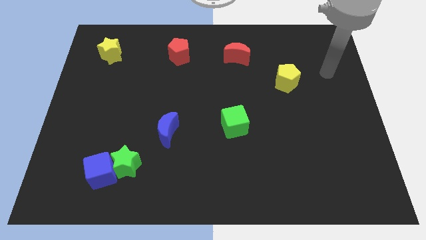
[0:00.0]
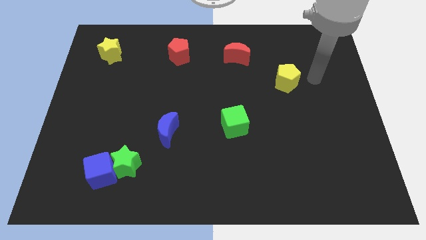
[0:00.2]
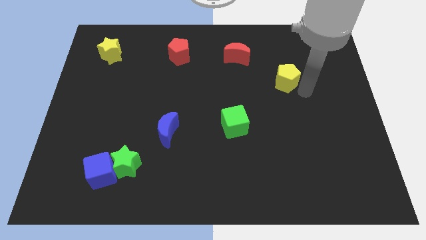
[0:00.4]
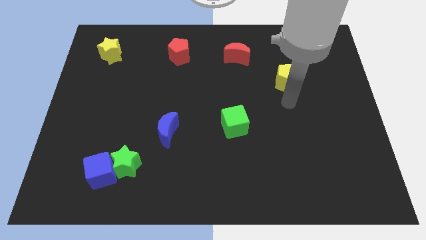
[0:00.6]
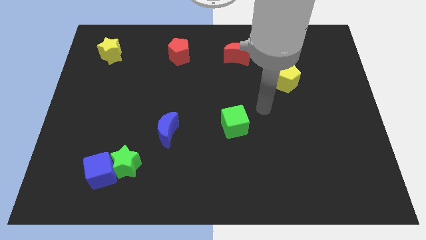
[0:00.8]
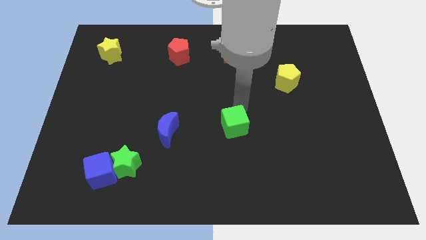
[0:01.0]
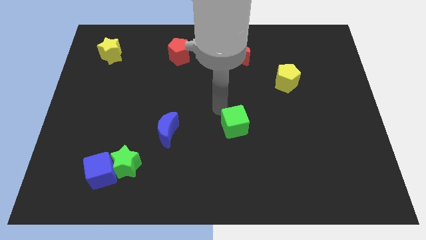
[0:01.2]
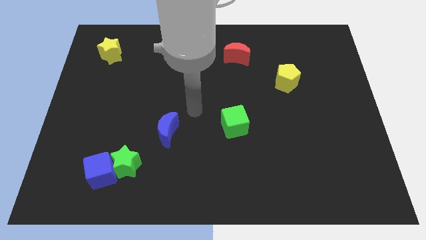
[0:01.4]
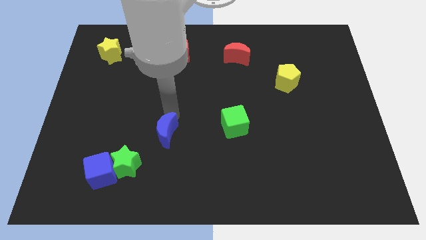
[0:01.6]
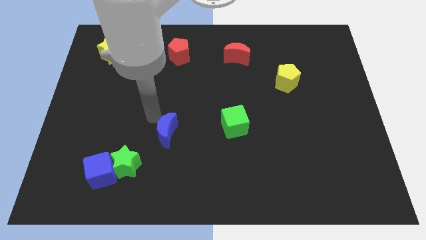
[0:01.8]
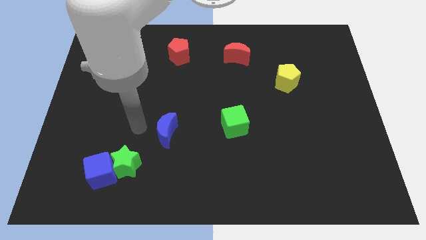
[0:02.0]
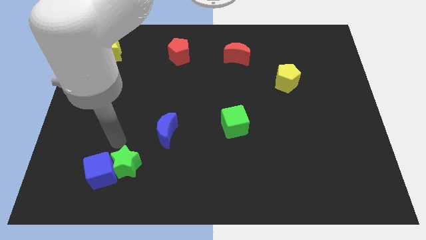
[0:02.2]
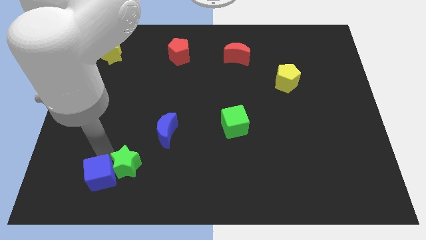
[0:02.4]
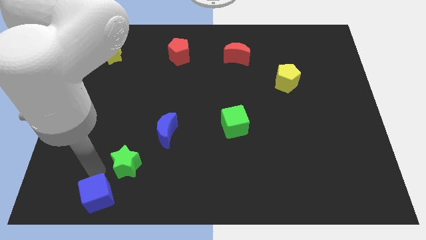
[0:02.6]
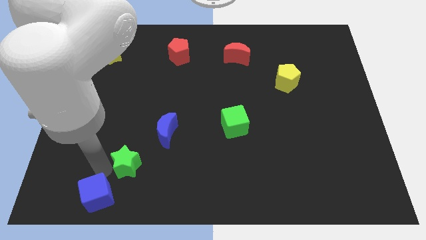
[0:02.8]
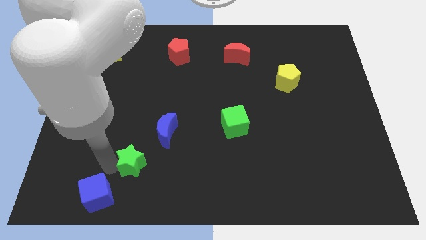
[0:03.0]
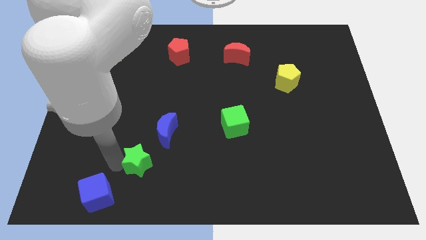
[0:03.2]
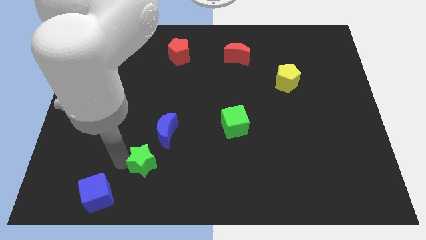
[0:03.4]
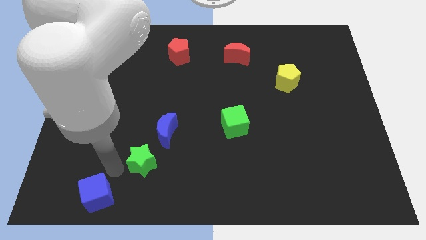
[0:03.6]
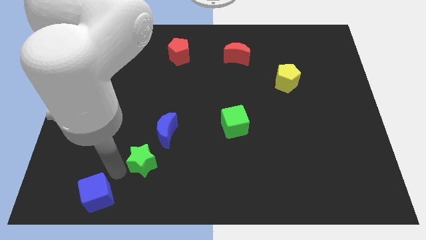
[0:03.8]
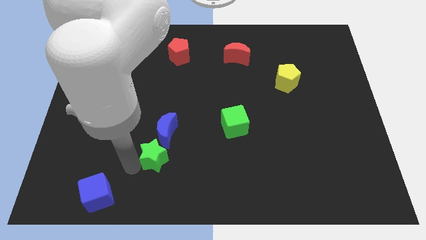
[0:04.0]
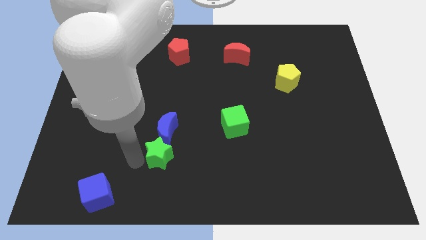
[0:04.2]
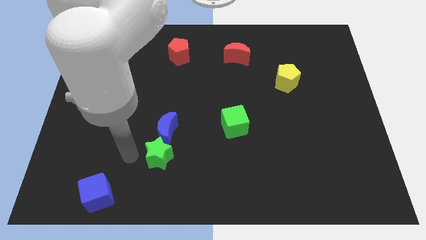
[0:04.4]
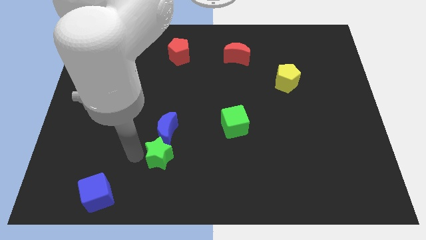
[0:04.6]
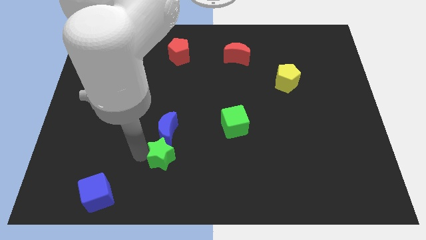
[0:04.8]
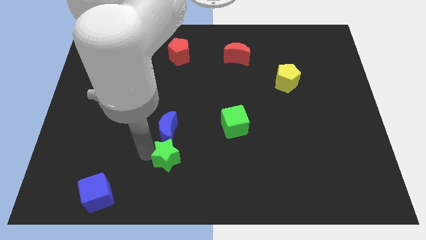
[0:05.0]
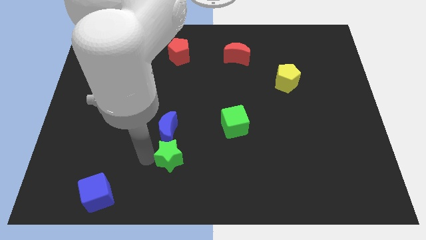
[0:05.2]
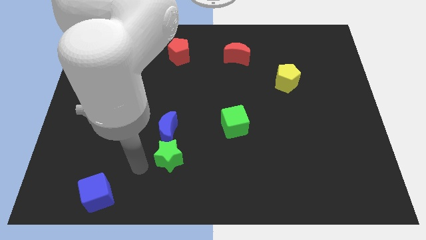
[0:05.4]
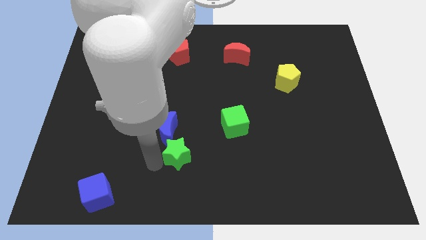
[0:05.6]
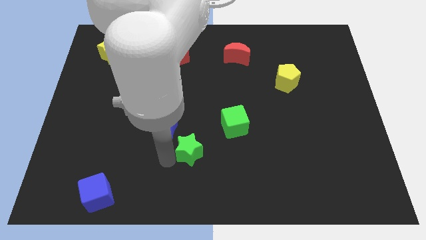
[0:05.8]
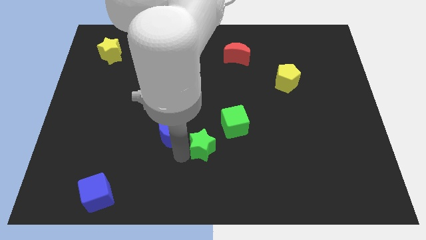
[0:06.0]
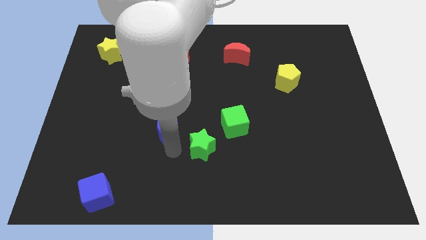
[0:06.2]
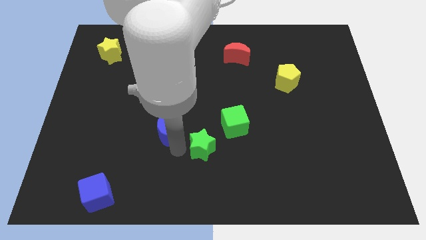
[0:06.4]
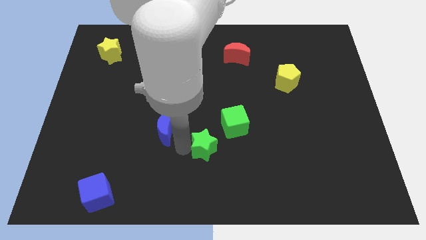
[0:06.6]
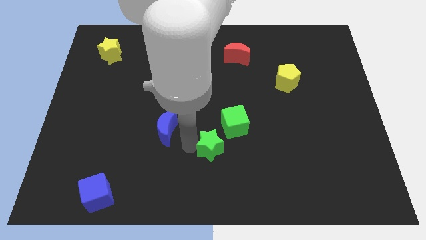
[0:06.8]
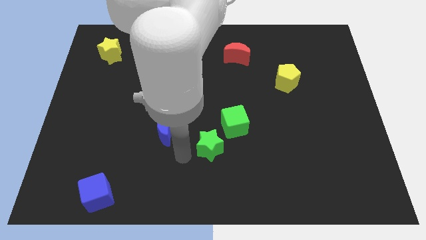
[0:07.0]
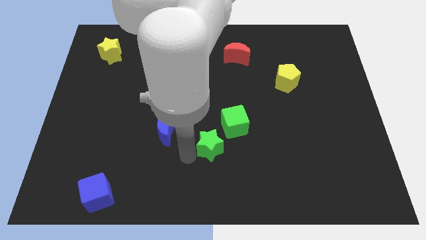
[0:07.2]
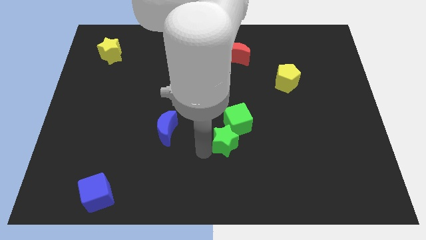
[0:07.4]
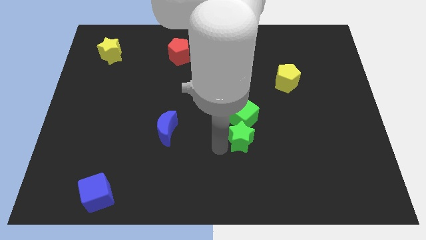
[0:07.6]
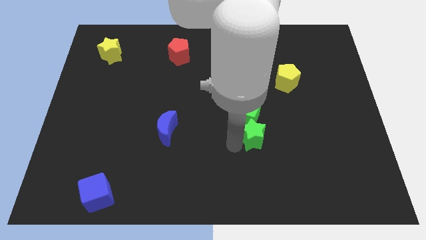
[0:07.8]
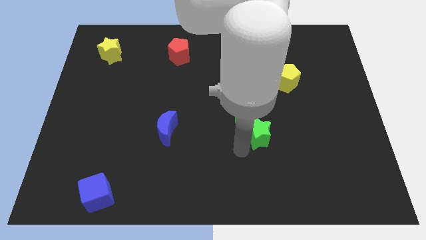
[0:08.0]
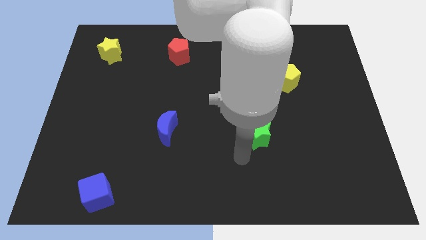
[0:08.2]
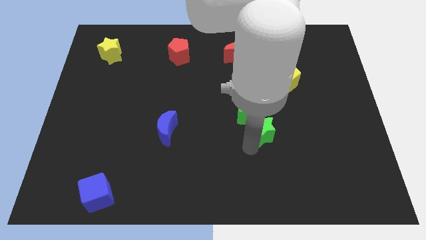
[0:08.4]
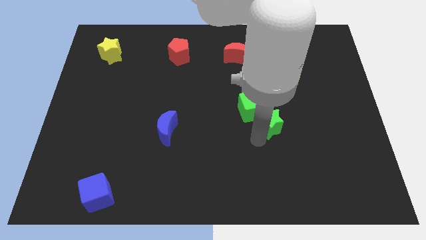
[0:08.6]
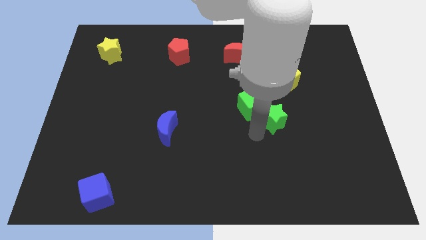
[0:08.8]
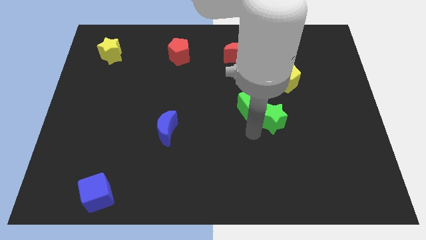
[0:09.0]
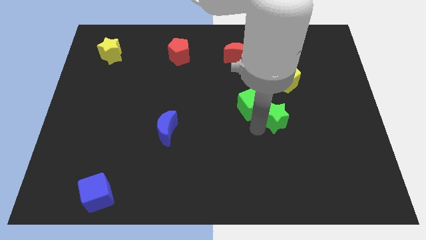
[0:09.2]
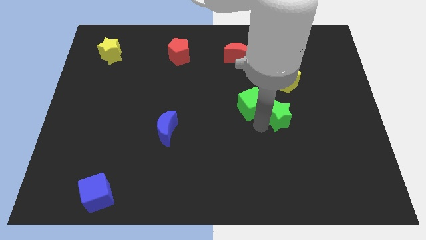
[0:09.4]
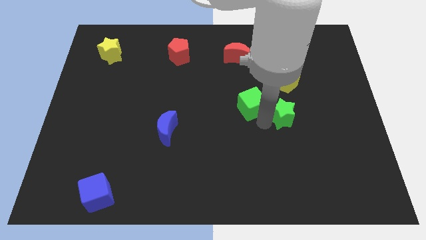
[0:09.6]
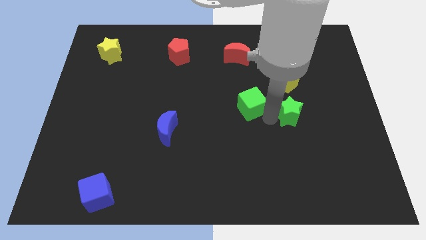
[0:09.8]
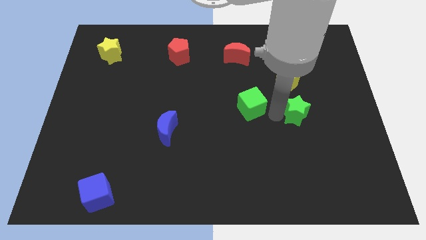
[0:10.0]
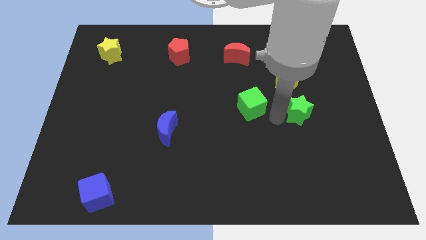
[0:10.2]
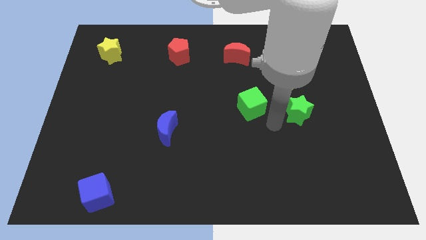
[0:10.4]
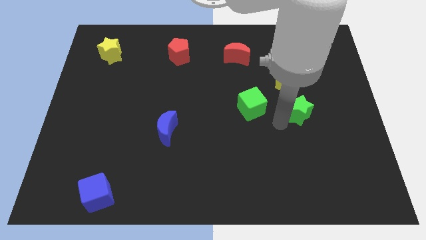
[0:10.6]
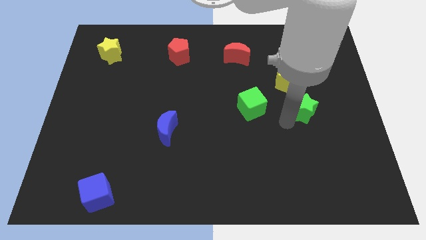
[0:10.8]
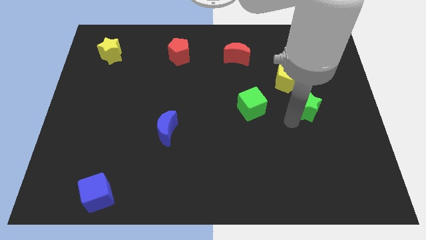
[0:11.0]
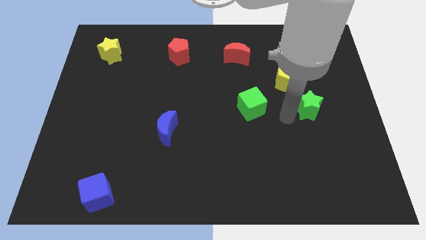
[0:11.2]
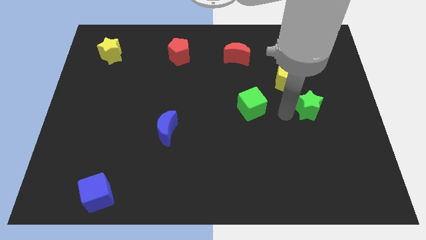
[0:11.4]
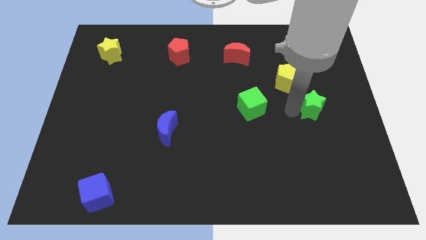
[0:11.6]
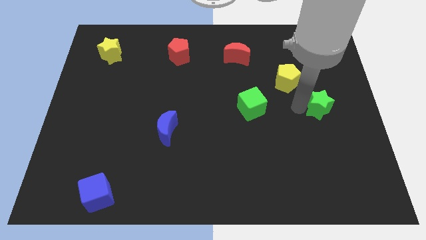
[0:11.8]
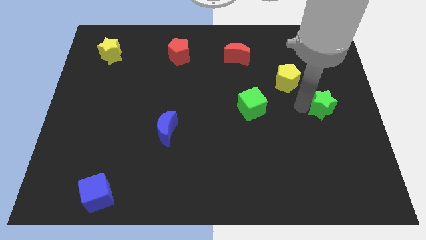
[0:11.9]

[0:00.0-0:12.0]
slide the green star to the right side of the board

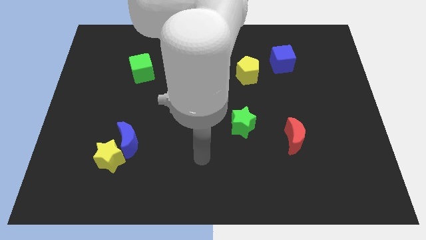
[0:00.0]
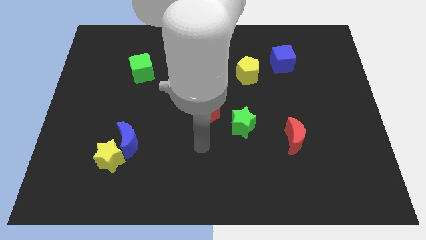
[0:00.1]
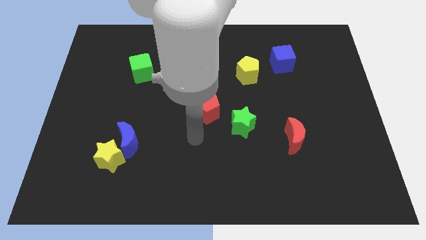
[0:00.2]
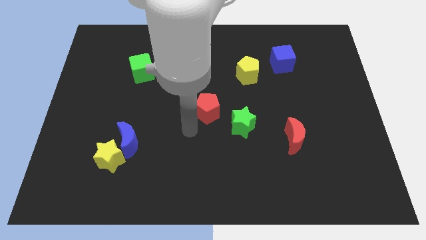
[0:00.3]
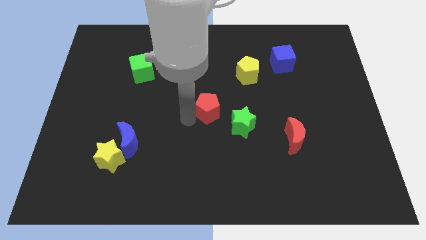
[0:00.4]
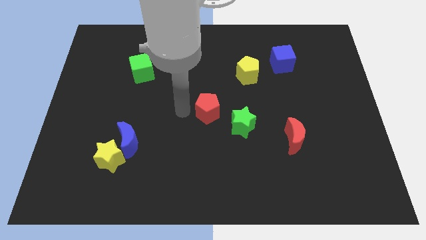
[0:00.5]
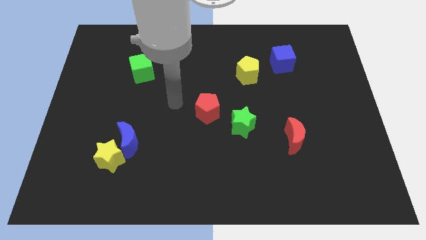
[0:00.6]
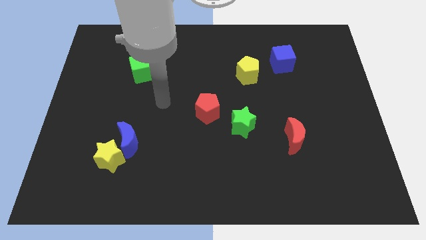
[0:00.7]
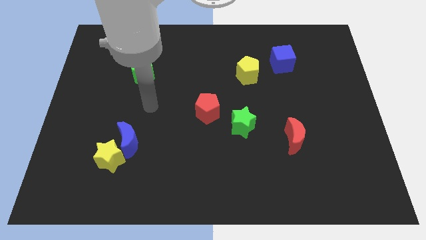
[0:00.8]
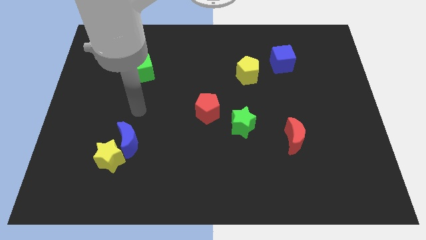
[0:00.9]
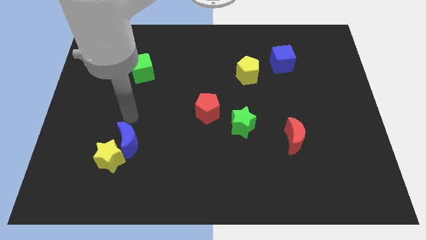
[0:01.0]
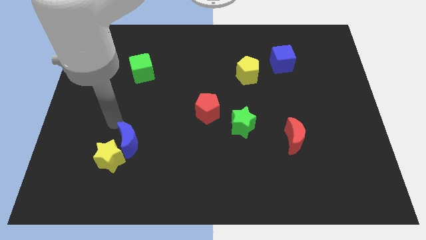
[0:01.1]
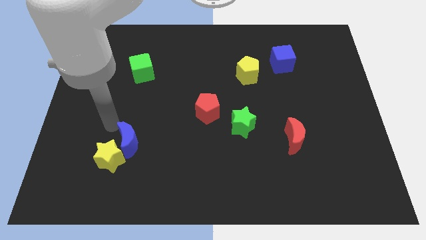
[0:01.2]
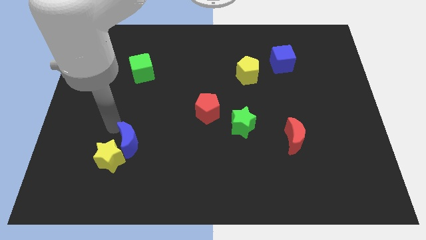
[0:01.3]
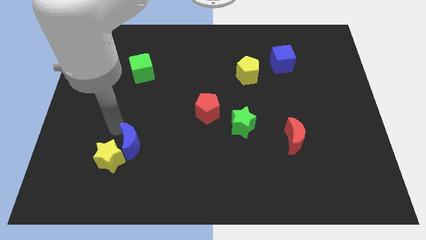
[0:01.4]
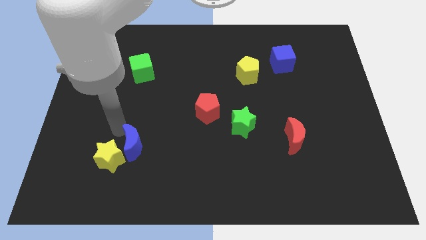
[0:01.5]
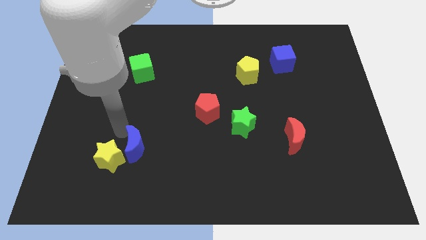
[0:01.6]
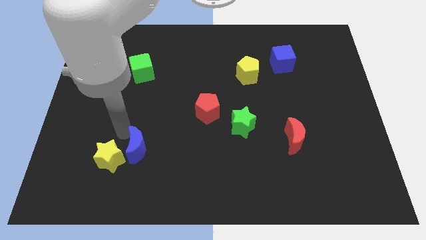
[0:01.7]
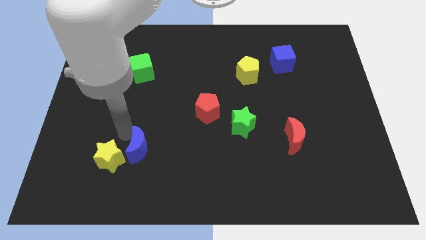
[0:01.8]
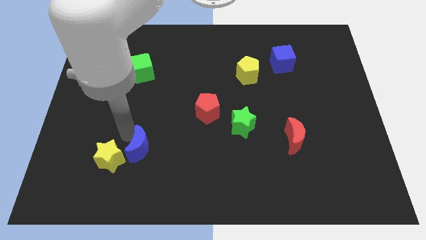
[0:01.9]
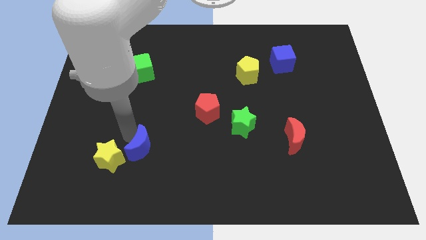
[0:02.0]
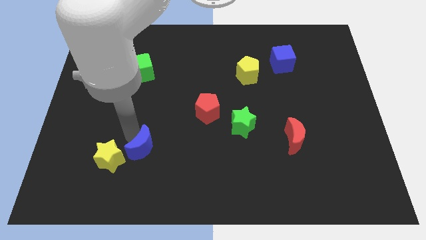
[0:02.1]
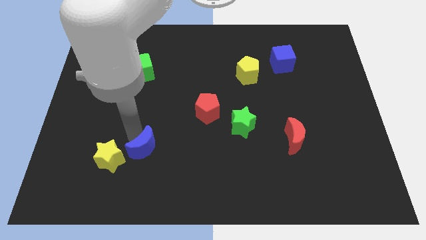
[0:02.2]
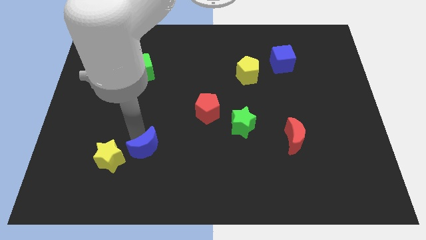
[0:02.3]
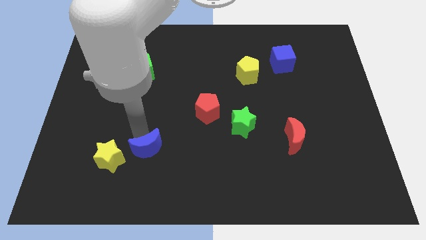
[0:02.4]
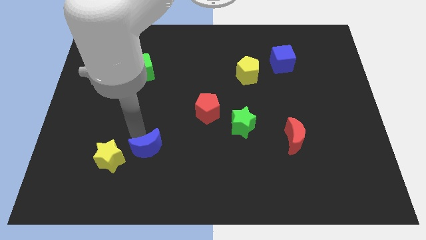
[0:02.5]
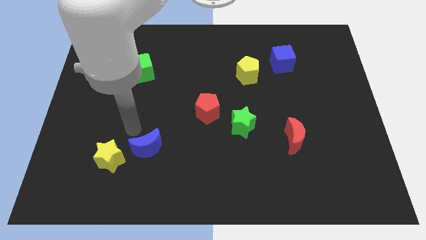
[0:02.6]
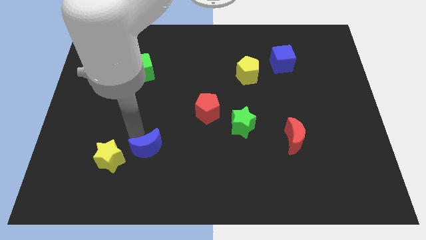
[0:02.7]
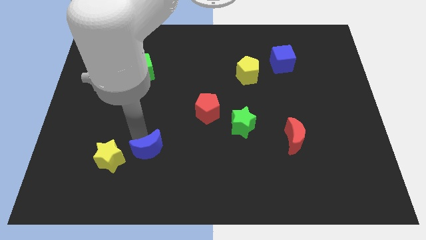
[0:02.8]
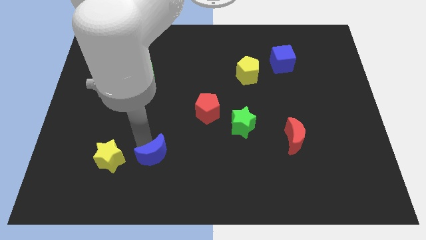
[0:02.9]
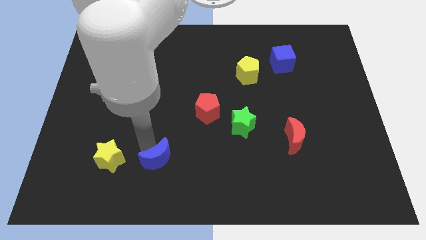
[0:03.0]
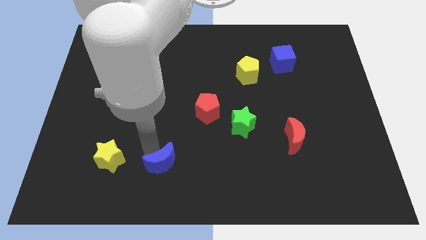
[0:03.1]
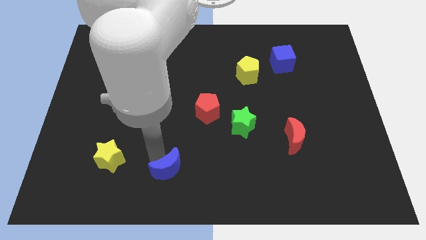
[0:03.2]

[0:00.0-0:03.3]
move the blue moon to the bottom
